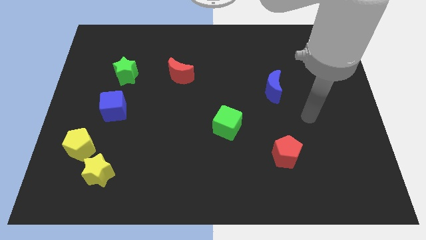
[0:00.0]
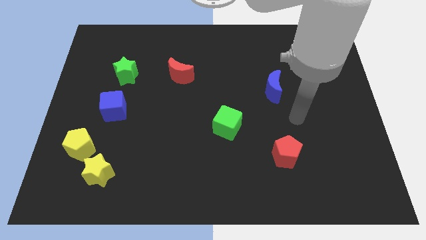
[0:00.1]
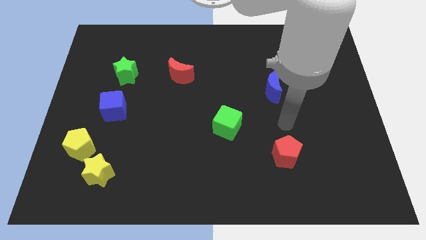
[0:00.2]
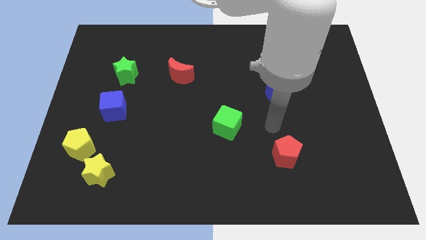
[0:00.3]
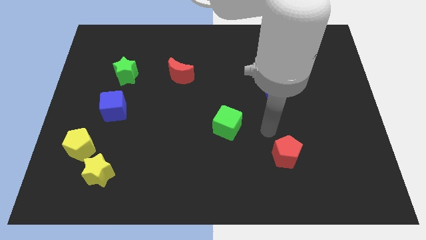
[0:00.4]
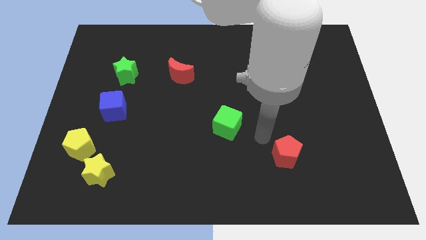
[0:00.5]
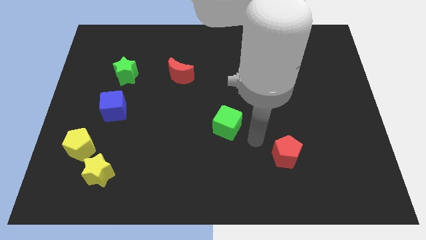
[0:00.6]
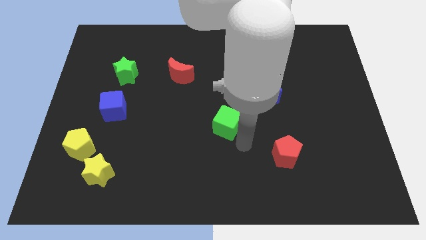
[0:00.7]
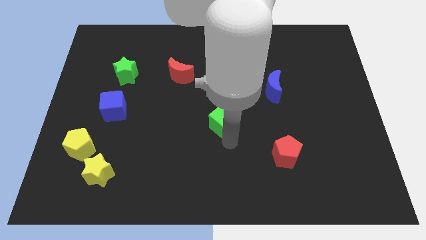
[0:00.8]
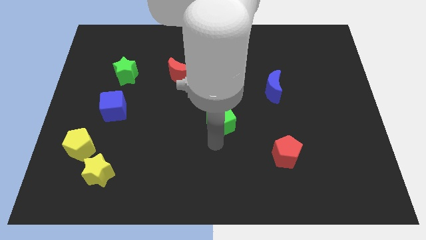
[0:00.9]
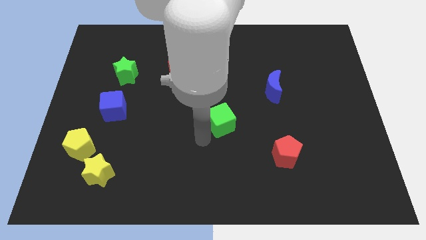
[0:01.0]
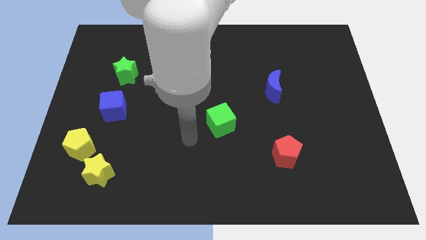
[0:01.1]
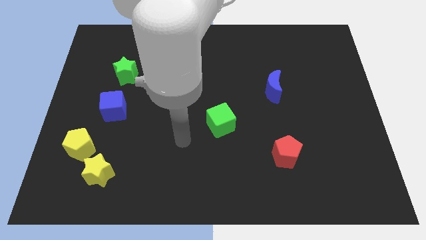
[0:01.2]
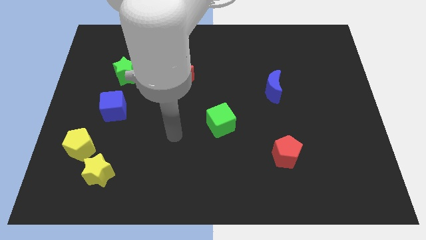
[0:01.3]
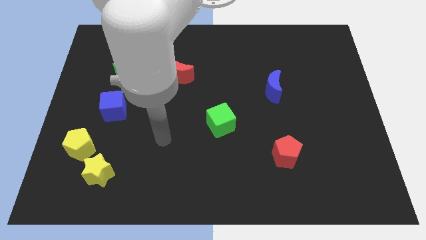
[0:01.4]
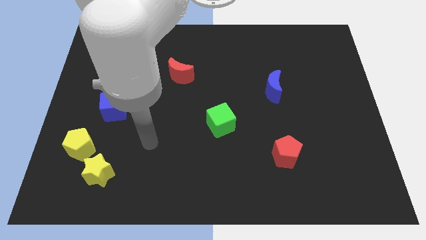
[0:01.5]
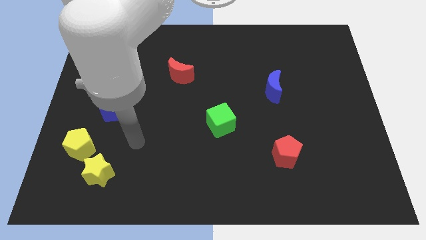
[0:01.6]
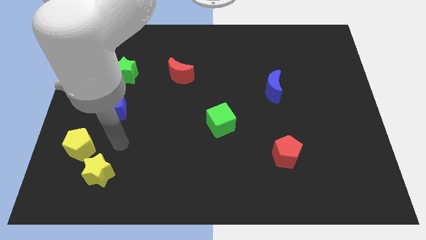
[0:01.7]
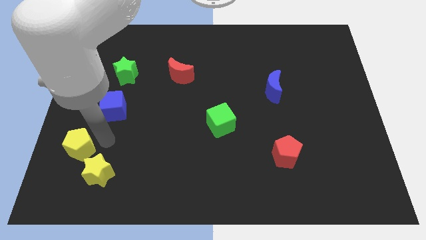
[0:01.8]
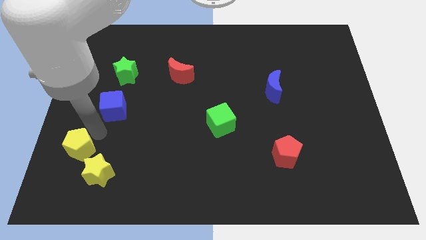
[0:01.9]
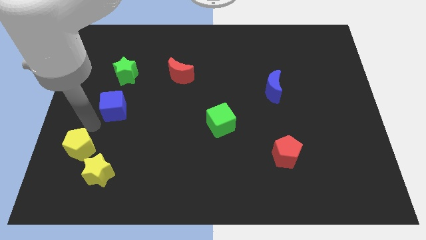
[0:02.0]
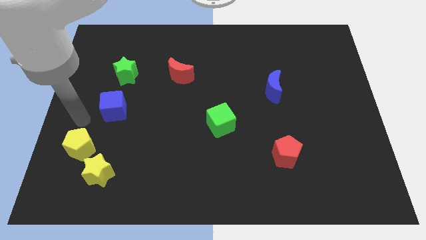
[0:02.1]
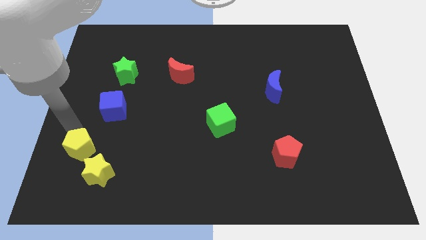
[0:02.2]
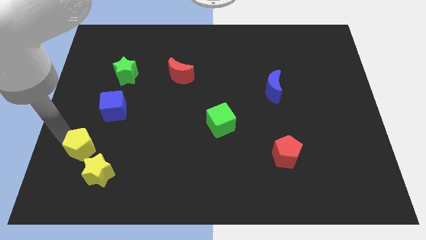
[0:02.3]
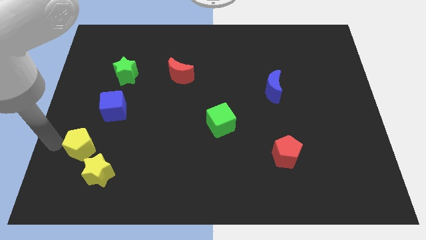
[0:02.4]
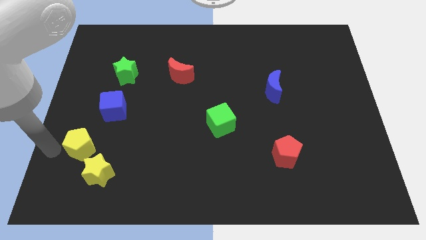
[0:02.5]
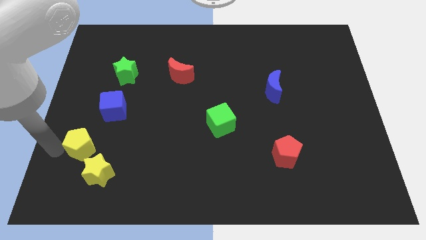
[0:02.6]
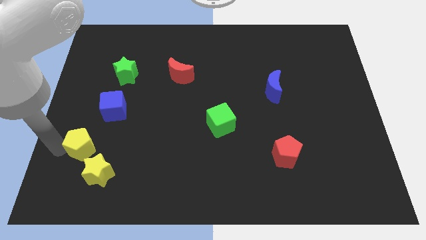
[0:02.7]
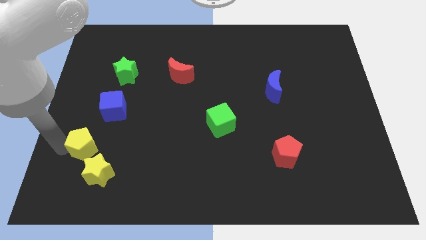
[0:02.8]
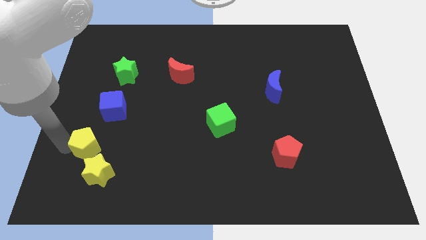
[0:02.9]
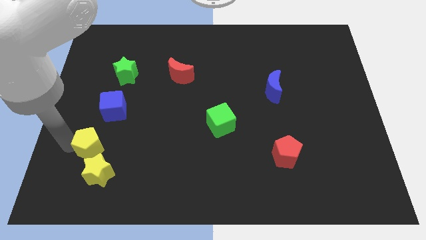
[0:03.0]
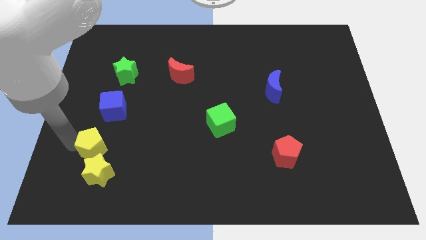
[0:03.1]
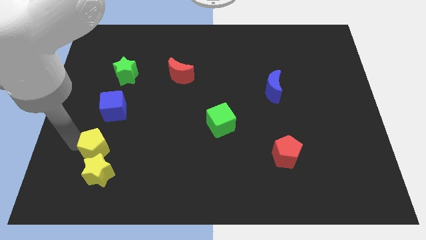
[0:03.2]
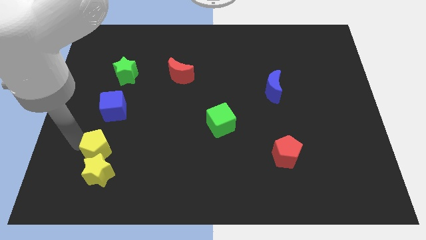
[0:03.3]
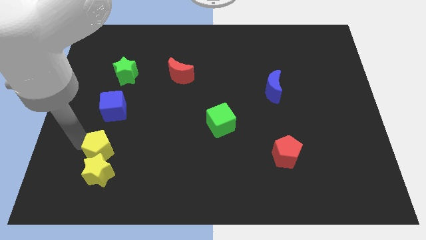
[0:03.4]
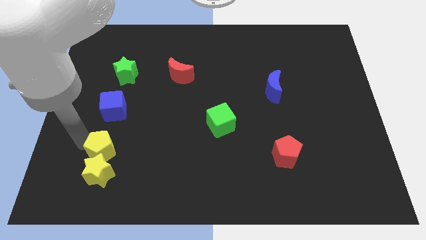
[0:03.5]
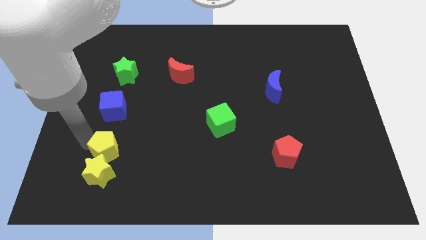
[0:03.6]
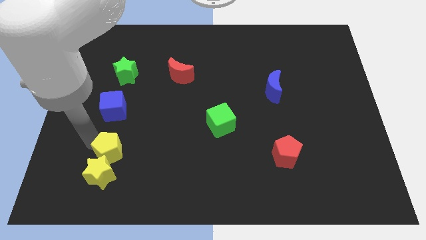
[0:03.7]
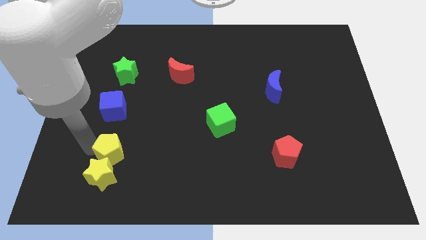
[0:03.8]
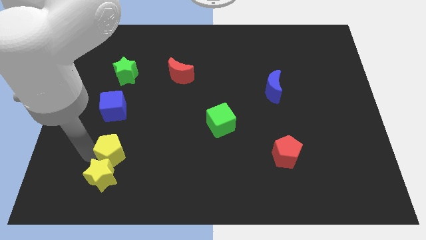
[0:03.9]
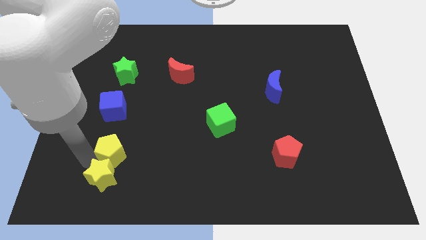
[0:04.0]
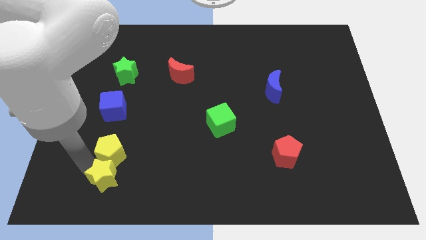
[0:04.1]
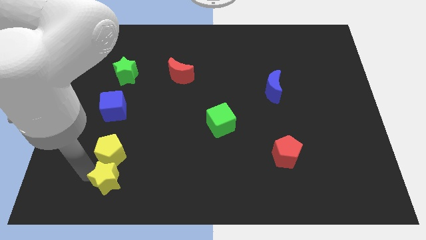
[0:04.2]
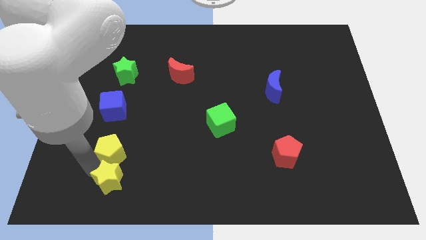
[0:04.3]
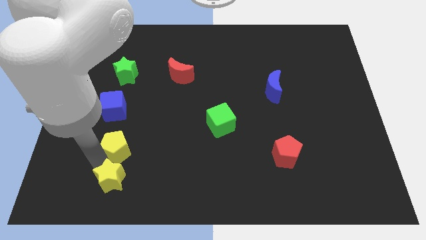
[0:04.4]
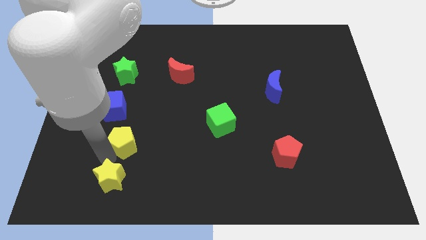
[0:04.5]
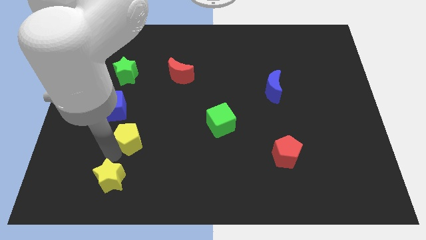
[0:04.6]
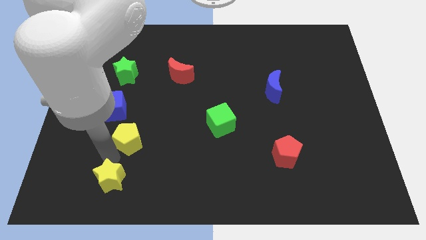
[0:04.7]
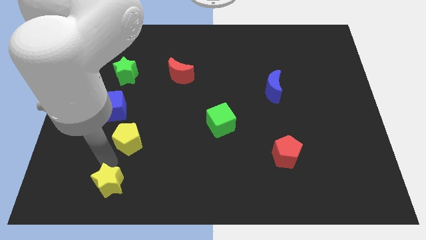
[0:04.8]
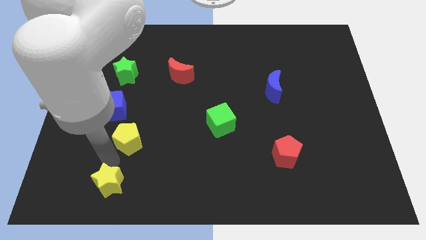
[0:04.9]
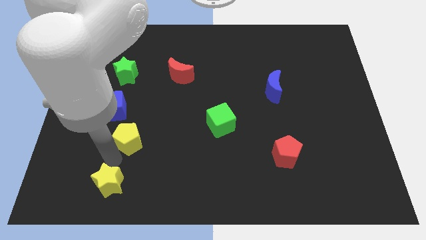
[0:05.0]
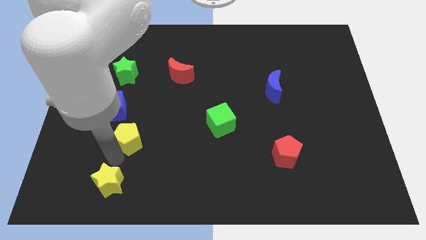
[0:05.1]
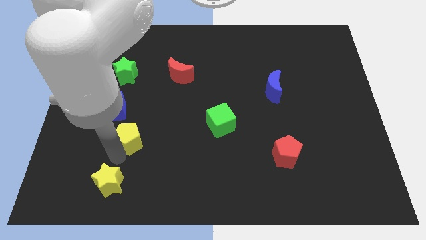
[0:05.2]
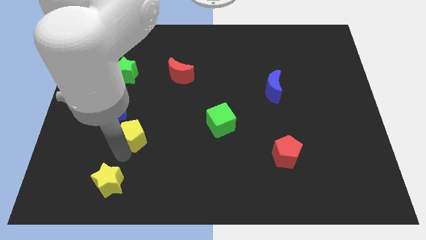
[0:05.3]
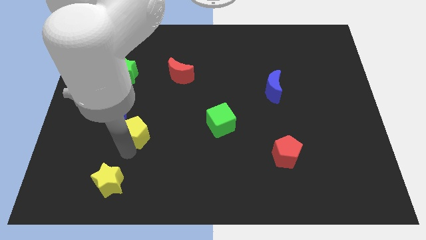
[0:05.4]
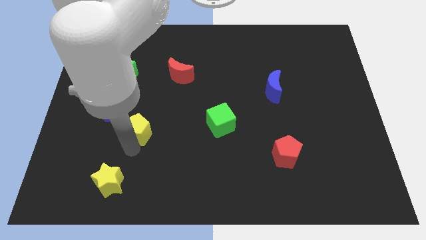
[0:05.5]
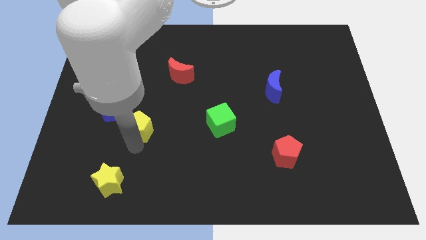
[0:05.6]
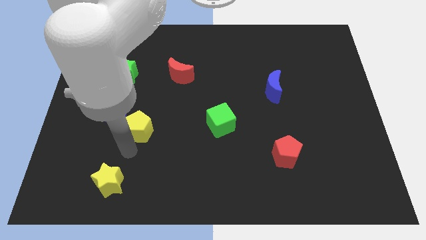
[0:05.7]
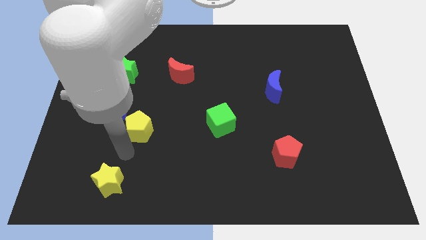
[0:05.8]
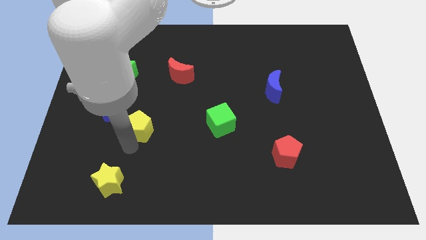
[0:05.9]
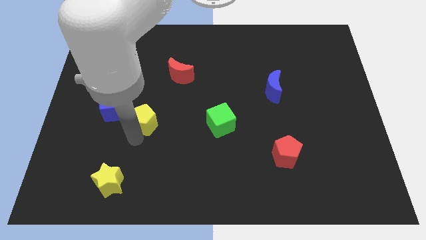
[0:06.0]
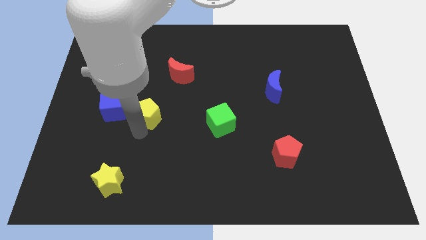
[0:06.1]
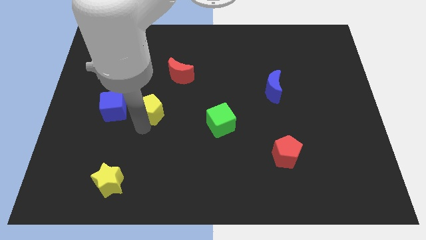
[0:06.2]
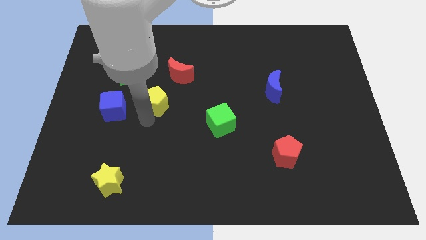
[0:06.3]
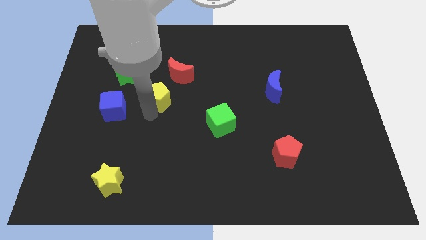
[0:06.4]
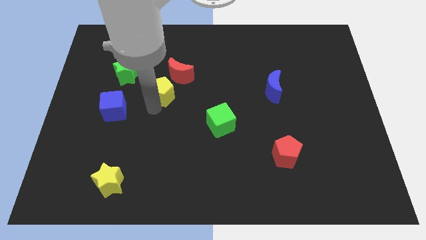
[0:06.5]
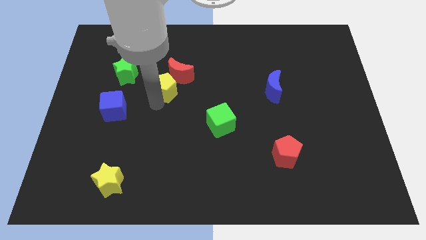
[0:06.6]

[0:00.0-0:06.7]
move the yellow pentagon to the red moon
